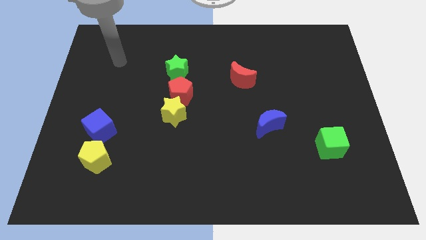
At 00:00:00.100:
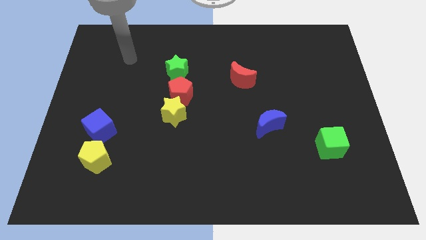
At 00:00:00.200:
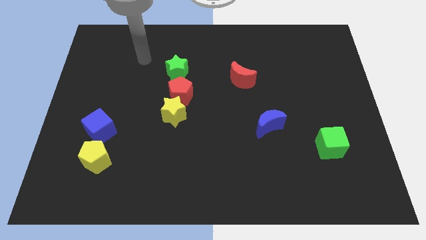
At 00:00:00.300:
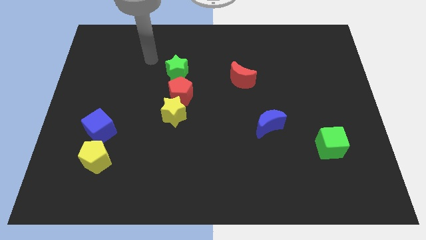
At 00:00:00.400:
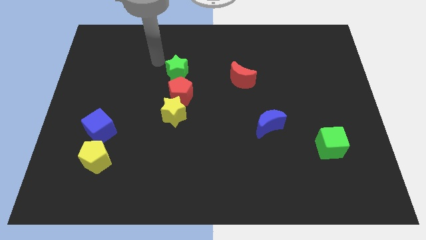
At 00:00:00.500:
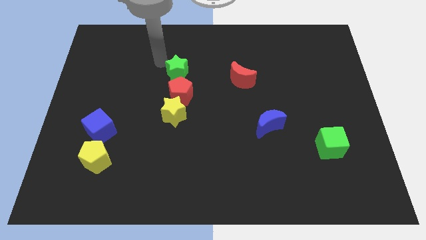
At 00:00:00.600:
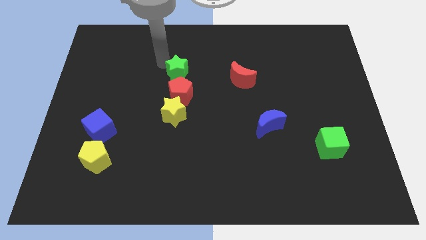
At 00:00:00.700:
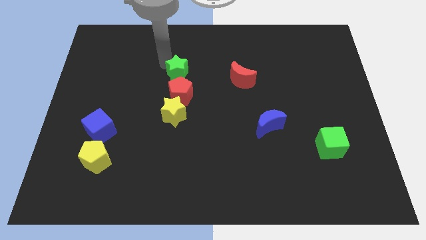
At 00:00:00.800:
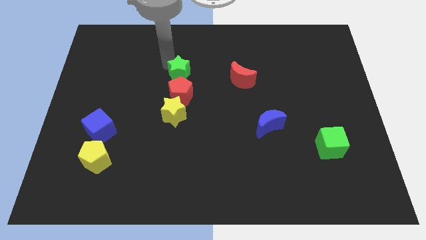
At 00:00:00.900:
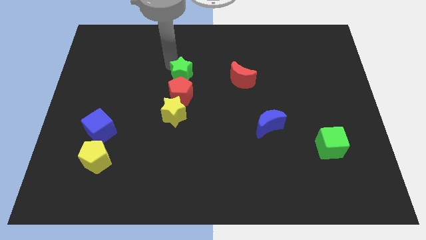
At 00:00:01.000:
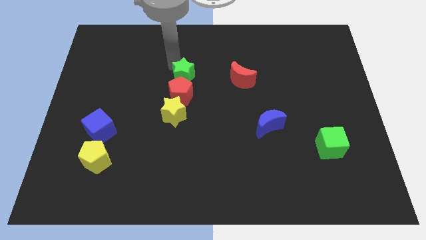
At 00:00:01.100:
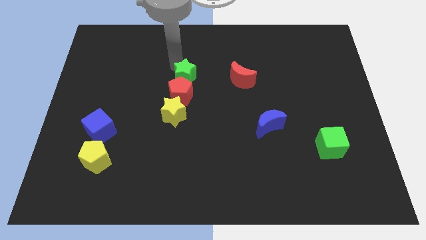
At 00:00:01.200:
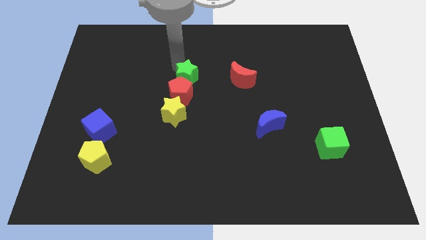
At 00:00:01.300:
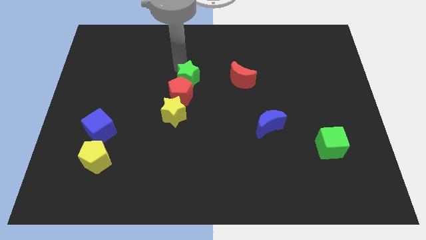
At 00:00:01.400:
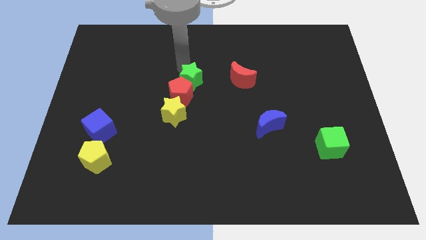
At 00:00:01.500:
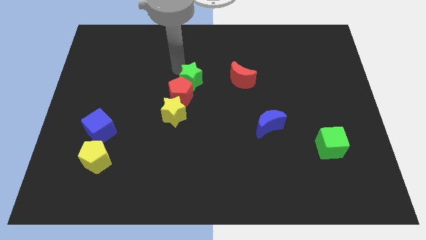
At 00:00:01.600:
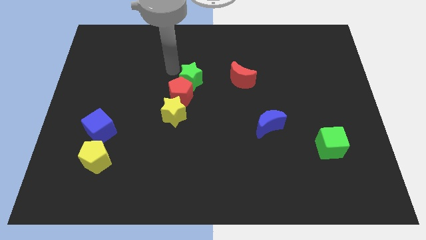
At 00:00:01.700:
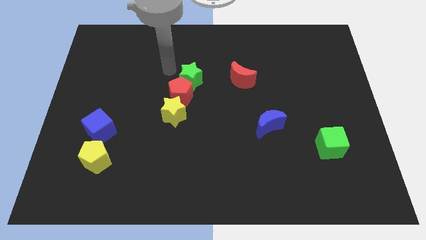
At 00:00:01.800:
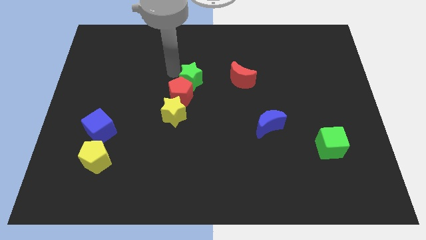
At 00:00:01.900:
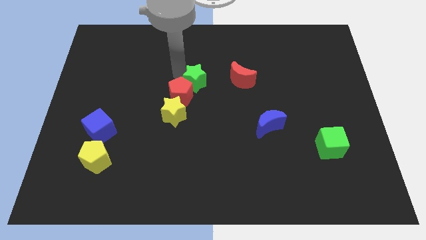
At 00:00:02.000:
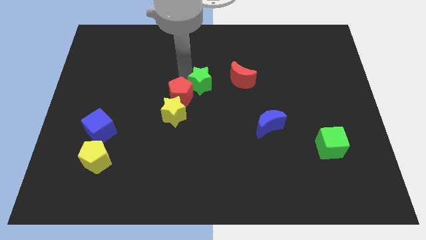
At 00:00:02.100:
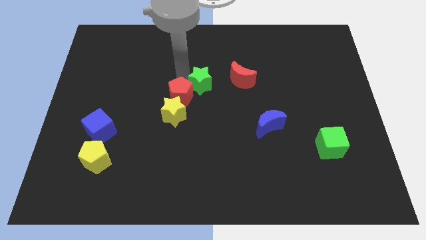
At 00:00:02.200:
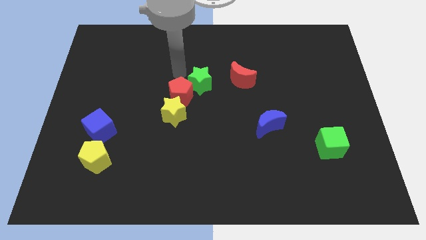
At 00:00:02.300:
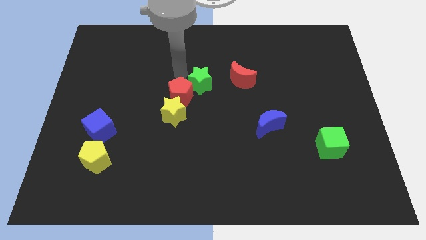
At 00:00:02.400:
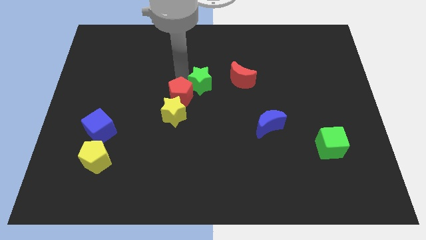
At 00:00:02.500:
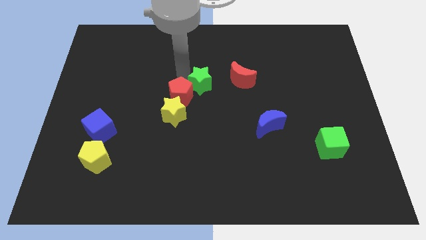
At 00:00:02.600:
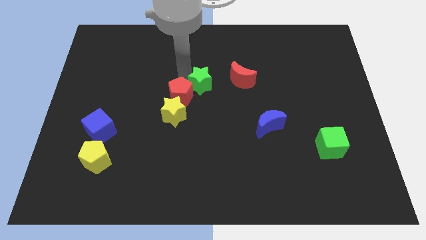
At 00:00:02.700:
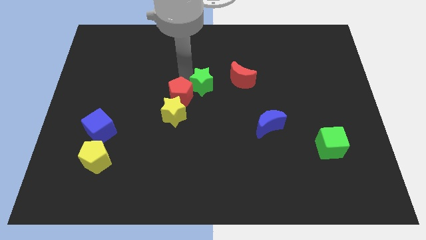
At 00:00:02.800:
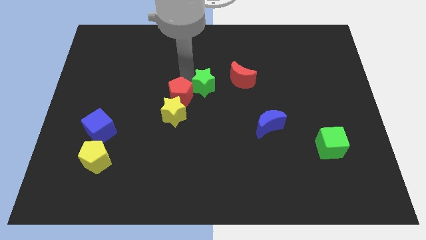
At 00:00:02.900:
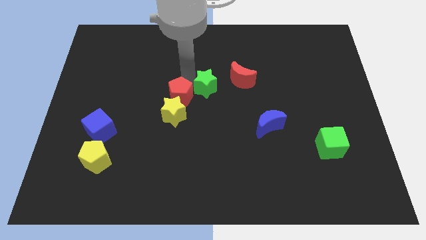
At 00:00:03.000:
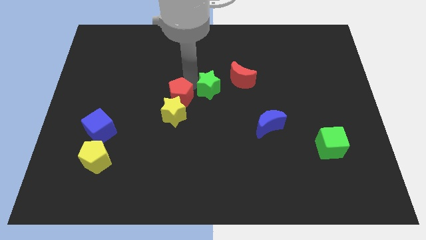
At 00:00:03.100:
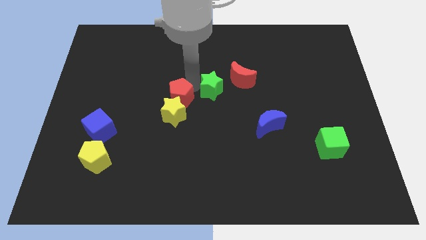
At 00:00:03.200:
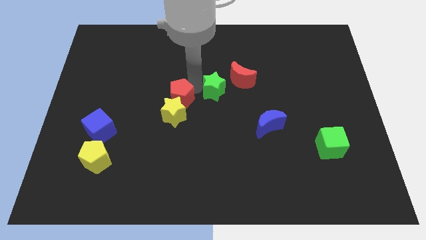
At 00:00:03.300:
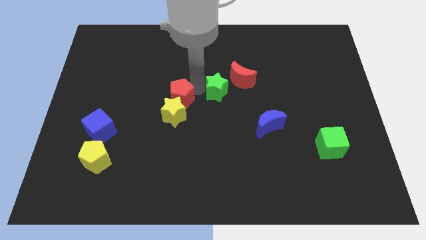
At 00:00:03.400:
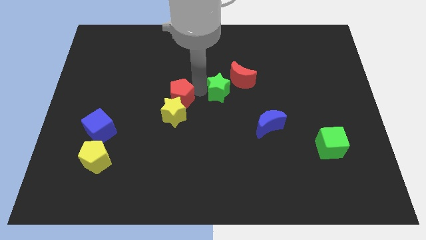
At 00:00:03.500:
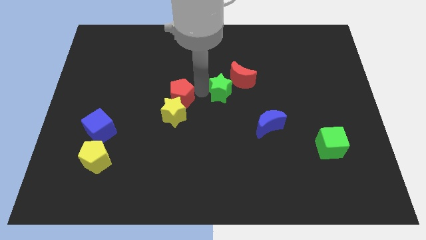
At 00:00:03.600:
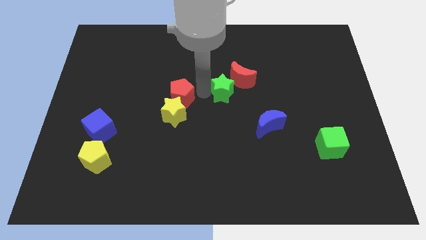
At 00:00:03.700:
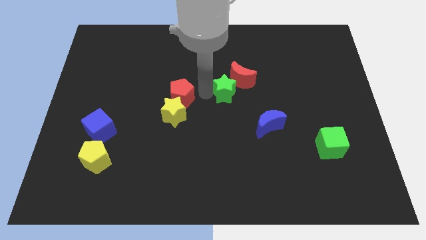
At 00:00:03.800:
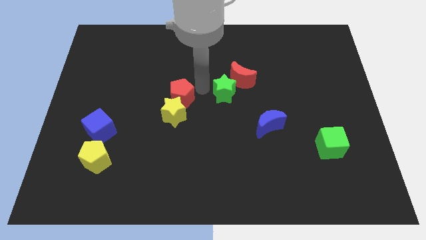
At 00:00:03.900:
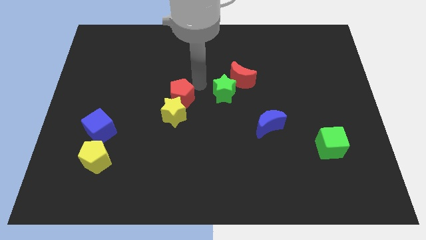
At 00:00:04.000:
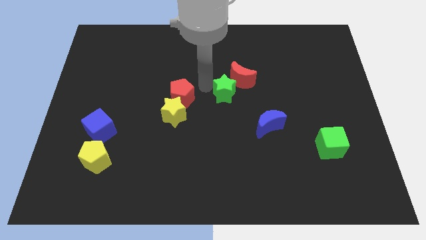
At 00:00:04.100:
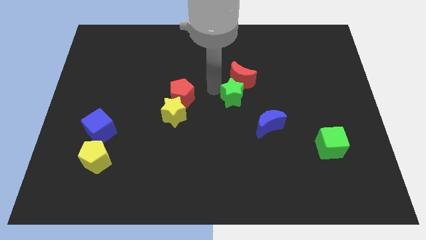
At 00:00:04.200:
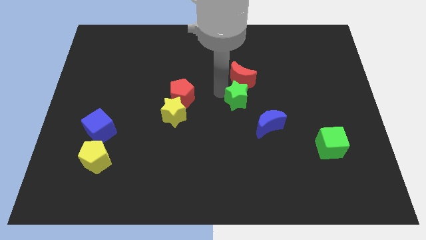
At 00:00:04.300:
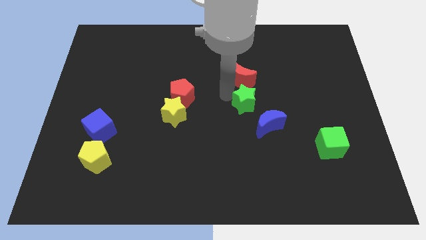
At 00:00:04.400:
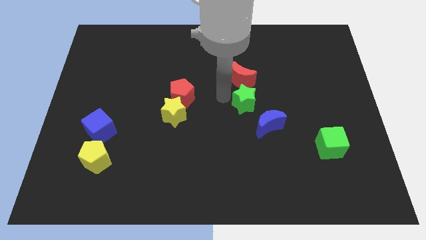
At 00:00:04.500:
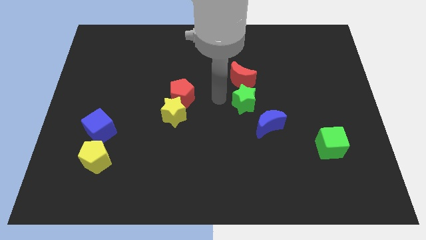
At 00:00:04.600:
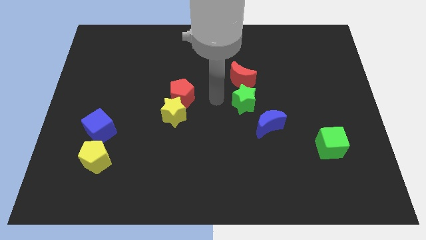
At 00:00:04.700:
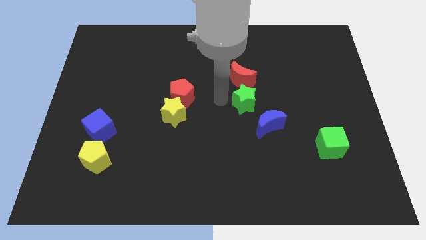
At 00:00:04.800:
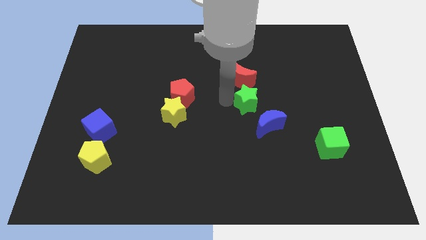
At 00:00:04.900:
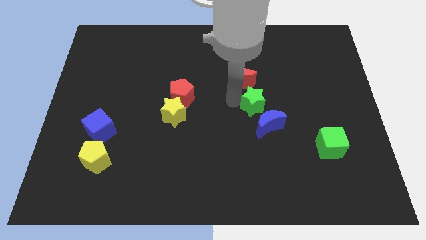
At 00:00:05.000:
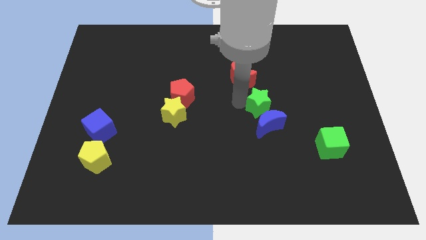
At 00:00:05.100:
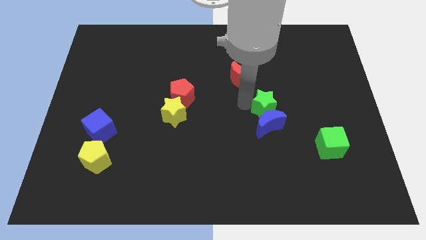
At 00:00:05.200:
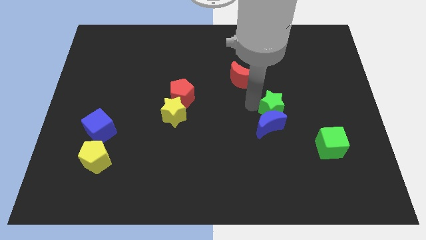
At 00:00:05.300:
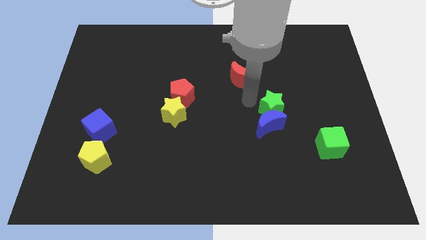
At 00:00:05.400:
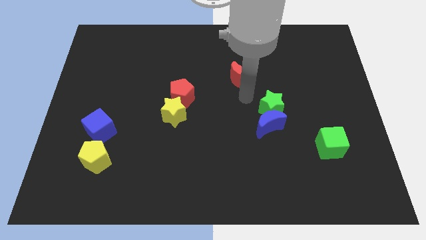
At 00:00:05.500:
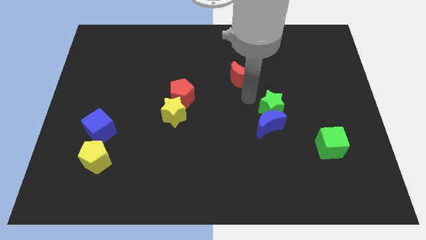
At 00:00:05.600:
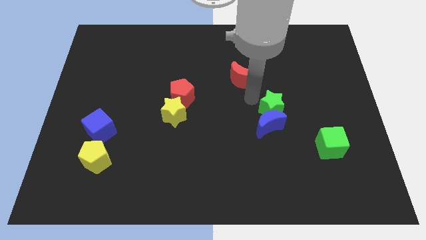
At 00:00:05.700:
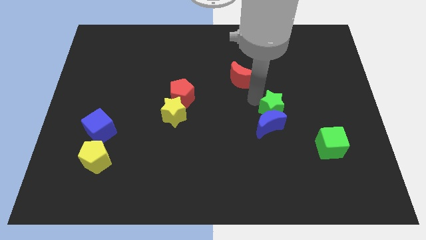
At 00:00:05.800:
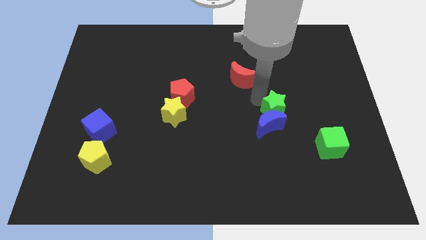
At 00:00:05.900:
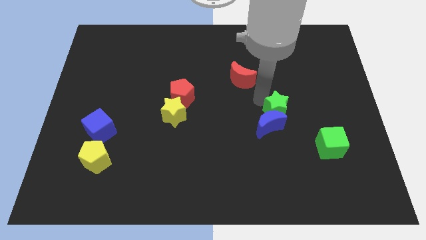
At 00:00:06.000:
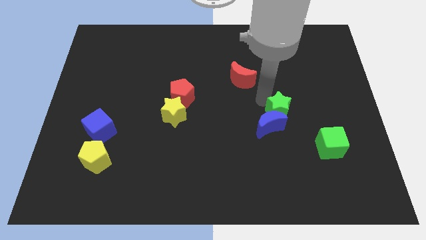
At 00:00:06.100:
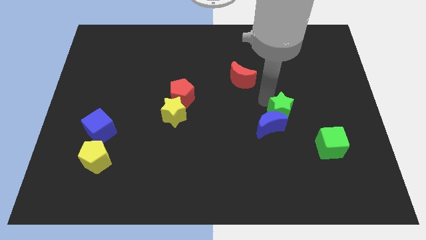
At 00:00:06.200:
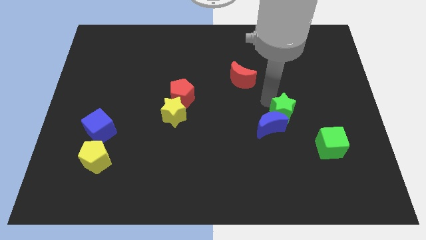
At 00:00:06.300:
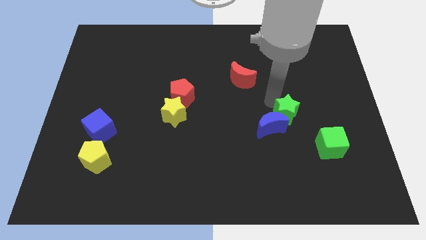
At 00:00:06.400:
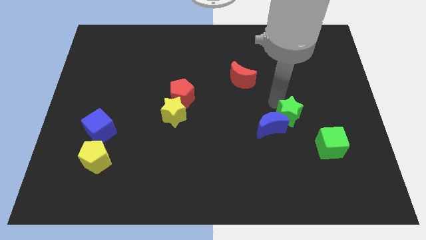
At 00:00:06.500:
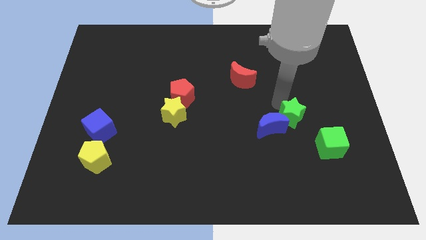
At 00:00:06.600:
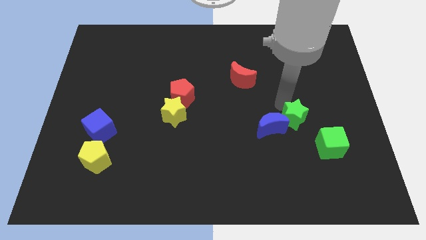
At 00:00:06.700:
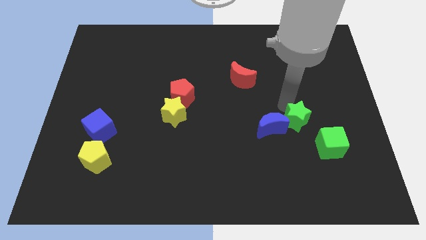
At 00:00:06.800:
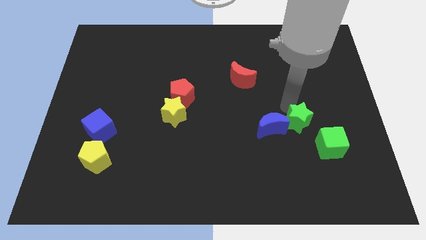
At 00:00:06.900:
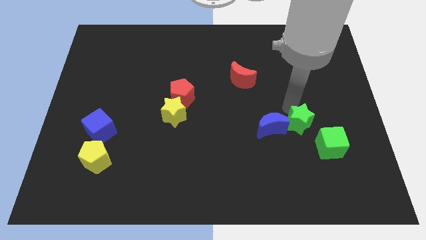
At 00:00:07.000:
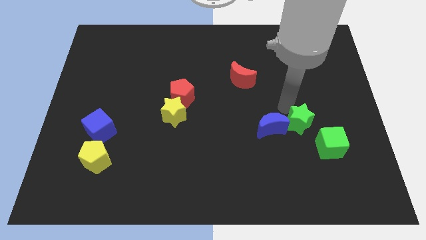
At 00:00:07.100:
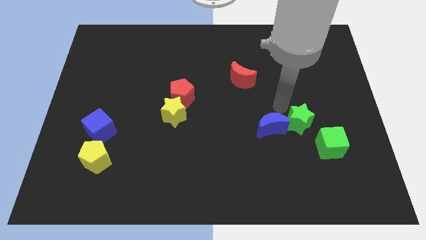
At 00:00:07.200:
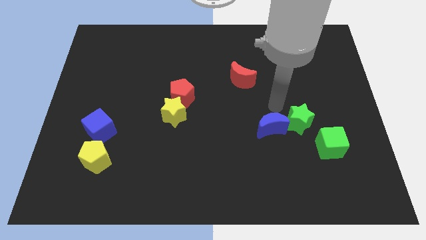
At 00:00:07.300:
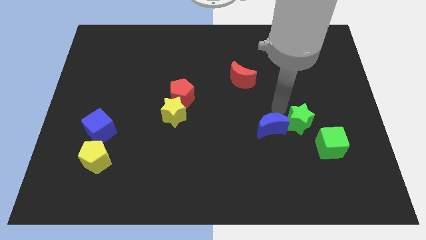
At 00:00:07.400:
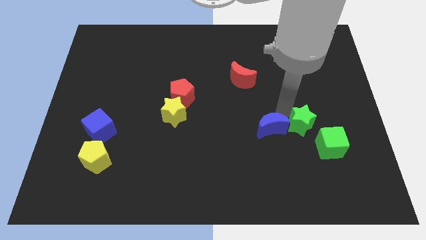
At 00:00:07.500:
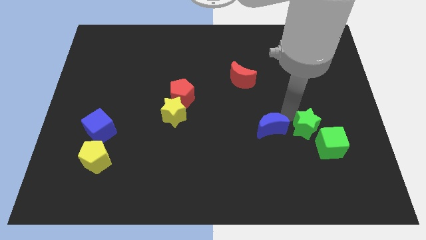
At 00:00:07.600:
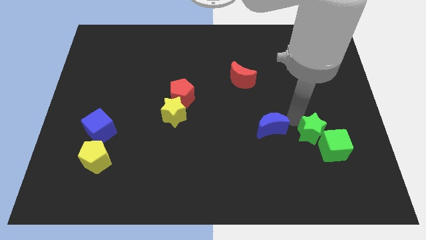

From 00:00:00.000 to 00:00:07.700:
put the green star to the green cube
